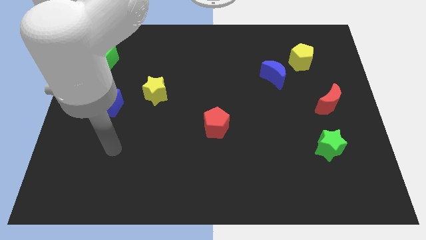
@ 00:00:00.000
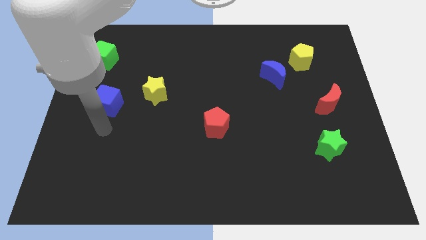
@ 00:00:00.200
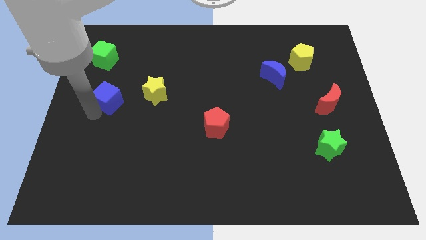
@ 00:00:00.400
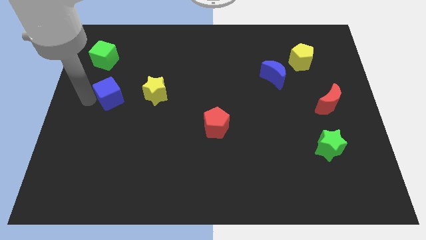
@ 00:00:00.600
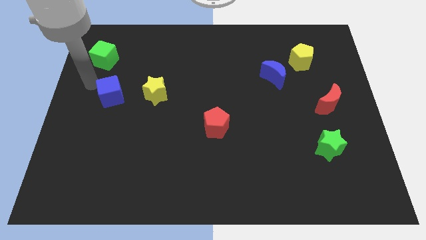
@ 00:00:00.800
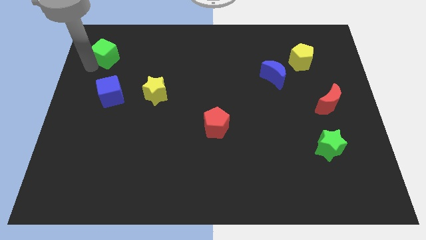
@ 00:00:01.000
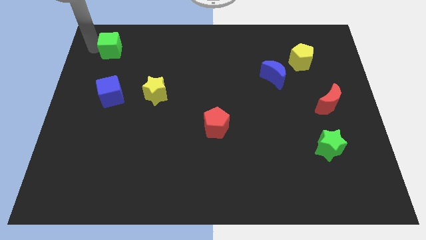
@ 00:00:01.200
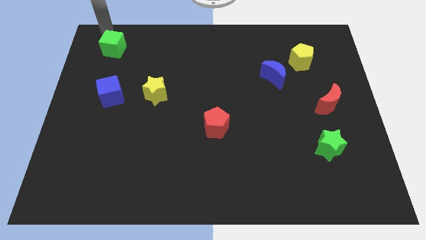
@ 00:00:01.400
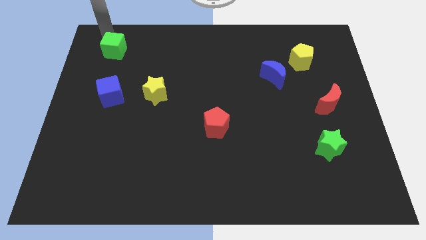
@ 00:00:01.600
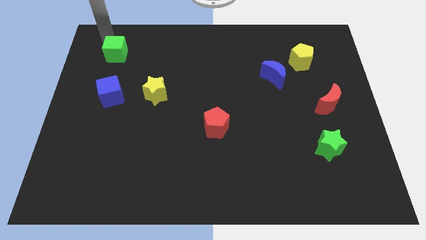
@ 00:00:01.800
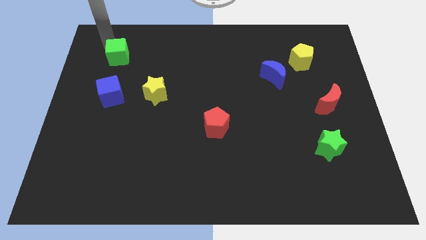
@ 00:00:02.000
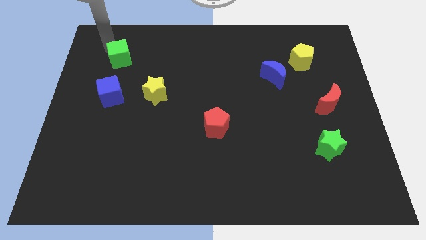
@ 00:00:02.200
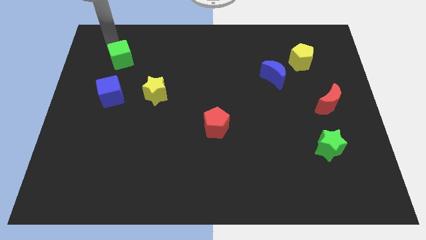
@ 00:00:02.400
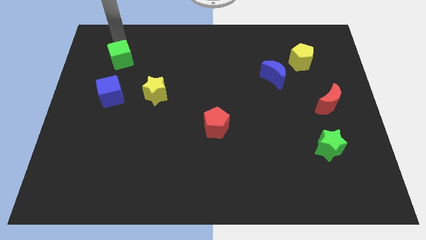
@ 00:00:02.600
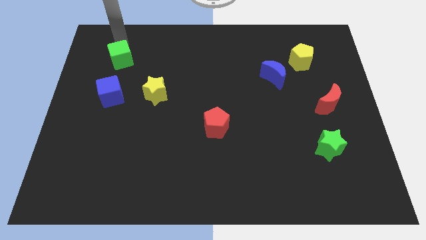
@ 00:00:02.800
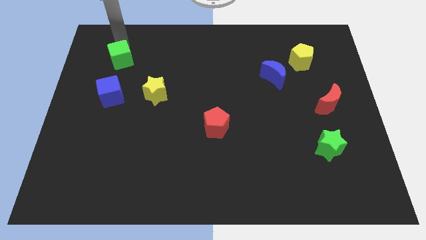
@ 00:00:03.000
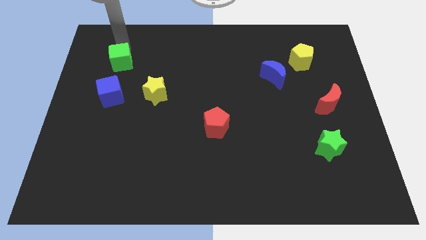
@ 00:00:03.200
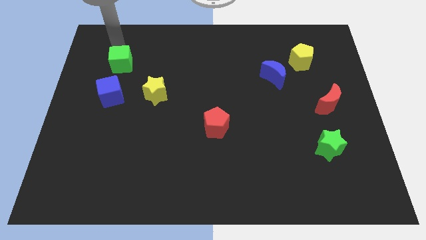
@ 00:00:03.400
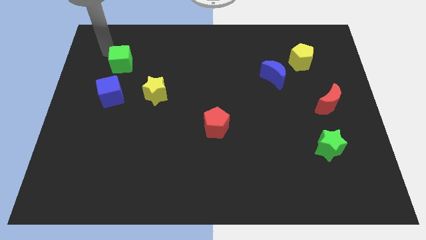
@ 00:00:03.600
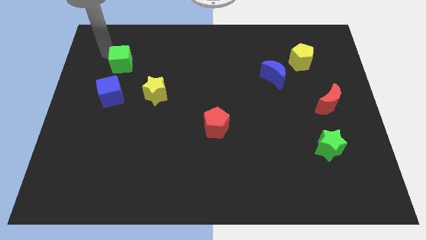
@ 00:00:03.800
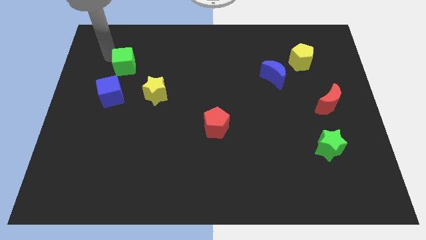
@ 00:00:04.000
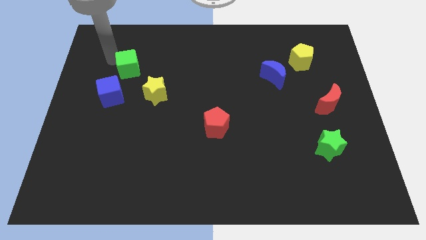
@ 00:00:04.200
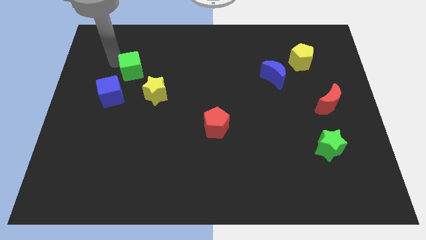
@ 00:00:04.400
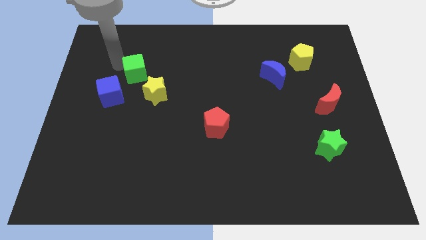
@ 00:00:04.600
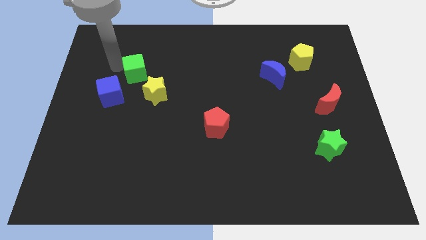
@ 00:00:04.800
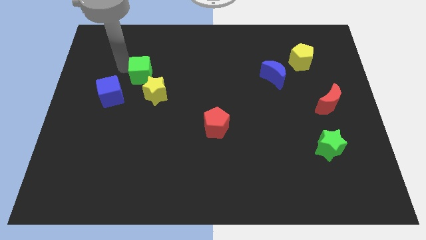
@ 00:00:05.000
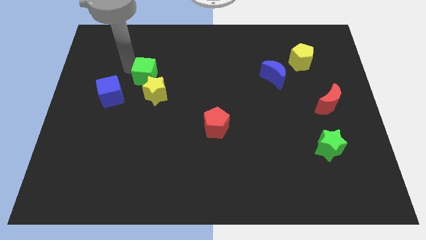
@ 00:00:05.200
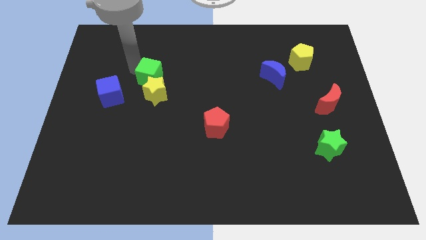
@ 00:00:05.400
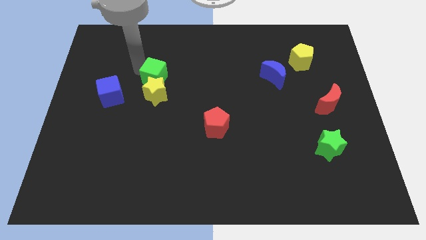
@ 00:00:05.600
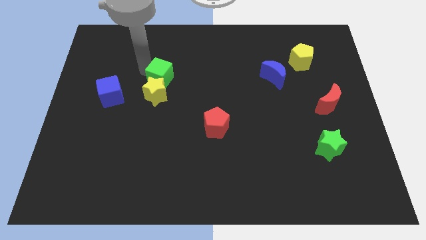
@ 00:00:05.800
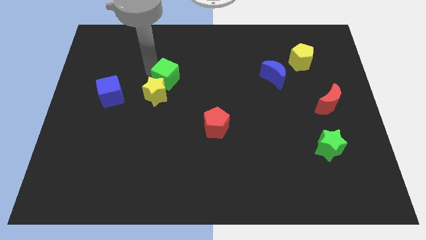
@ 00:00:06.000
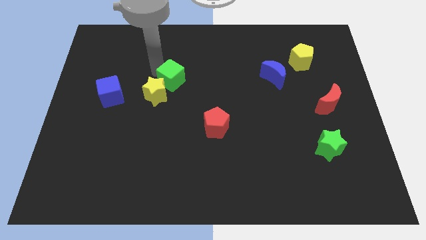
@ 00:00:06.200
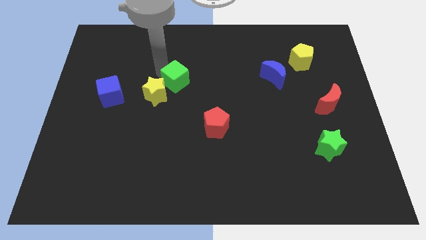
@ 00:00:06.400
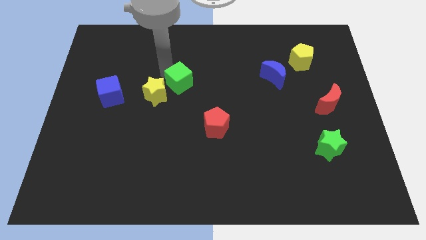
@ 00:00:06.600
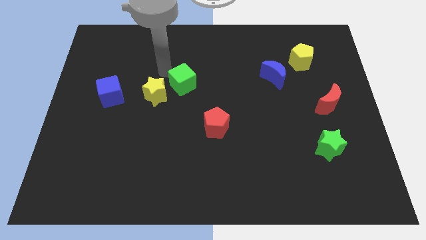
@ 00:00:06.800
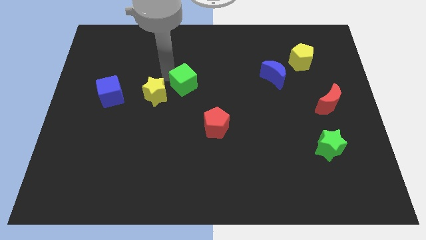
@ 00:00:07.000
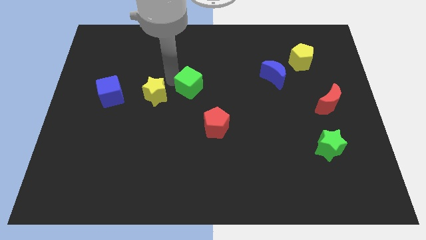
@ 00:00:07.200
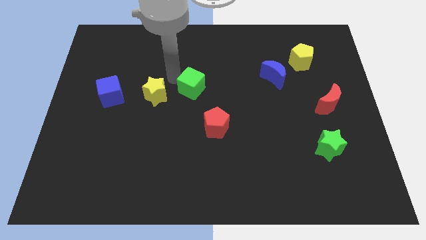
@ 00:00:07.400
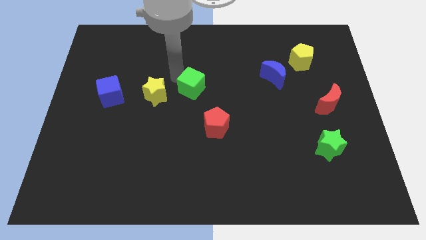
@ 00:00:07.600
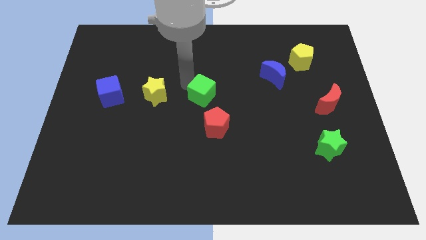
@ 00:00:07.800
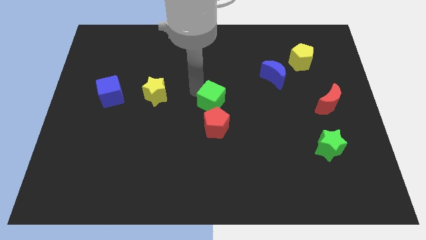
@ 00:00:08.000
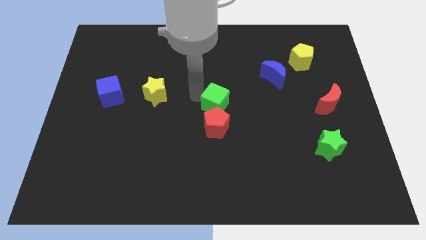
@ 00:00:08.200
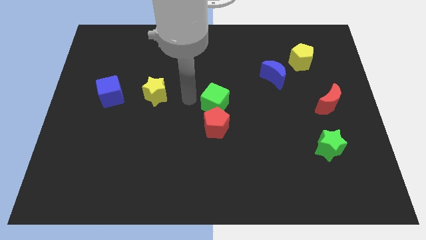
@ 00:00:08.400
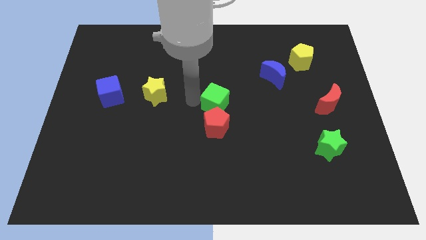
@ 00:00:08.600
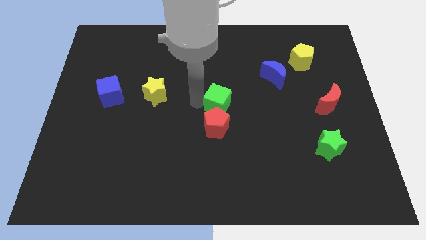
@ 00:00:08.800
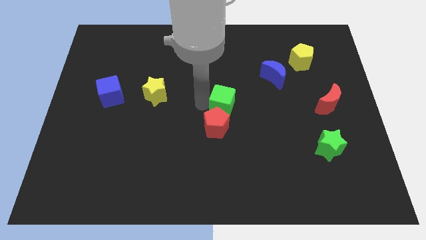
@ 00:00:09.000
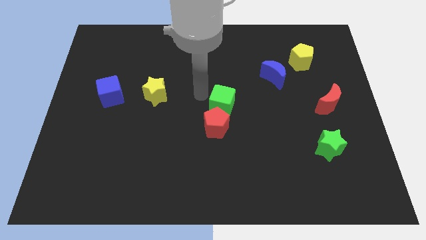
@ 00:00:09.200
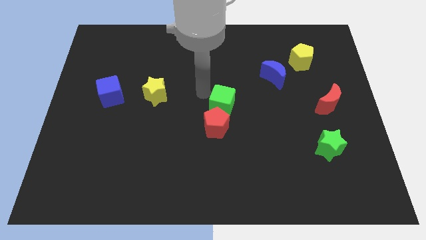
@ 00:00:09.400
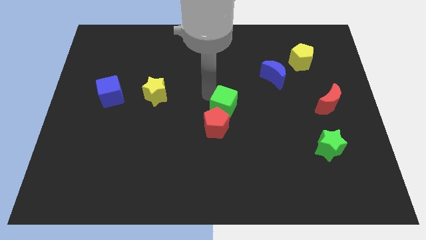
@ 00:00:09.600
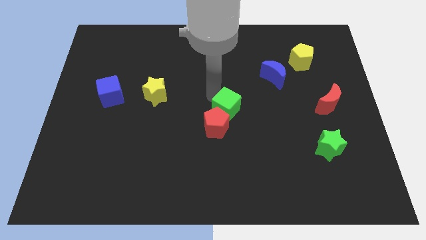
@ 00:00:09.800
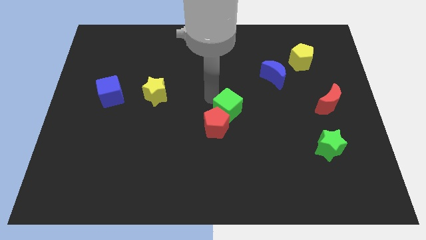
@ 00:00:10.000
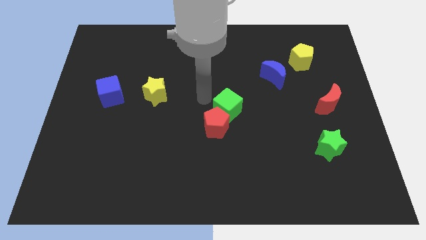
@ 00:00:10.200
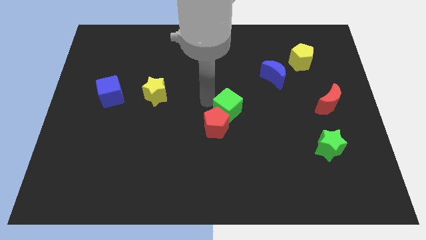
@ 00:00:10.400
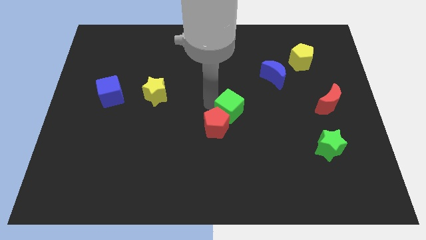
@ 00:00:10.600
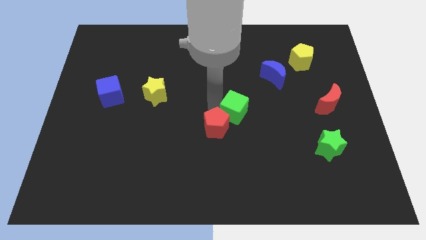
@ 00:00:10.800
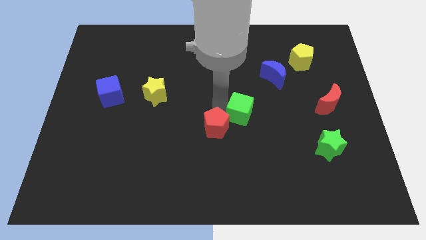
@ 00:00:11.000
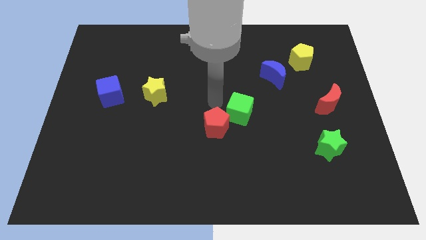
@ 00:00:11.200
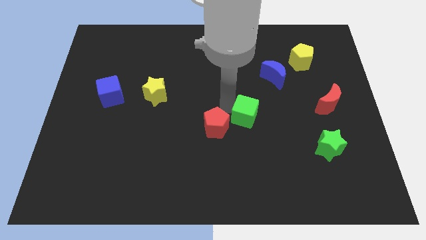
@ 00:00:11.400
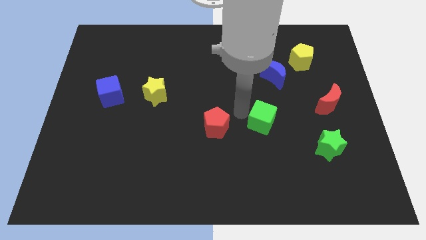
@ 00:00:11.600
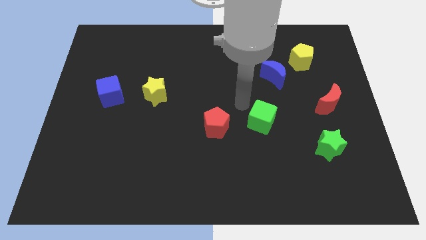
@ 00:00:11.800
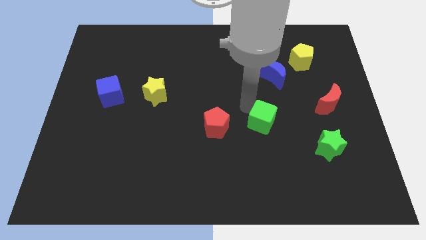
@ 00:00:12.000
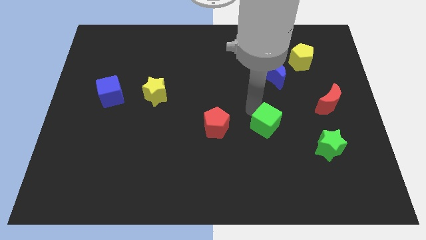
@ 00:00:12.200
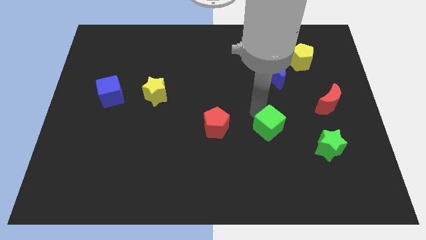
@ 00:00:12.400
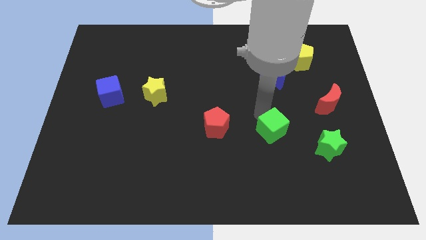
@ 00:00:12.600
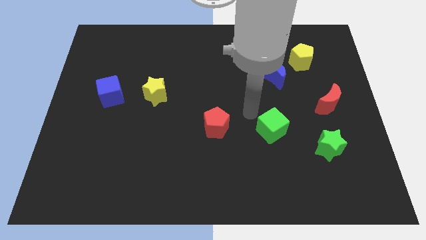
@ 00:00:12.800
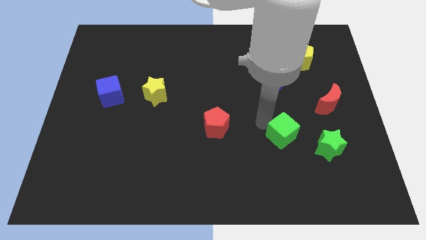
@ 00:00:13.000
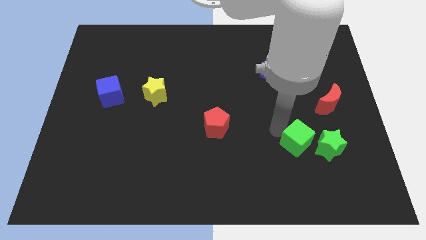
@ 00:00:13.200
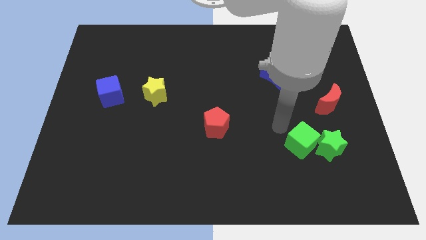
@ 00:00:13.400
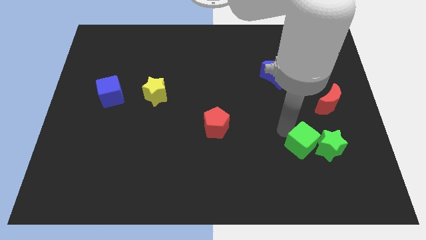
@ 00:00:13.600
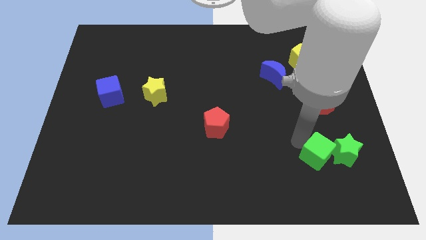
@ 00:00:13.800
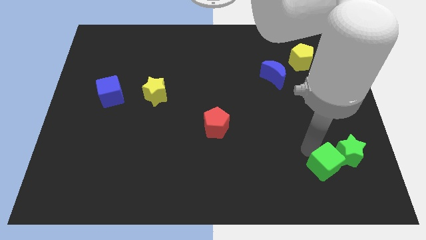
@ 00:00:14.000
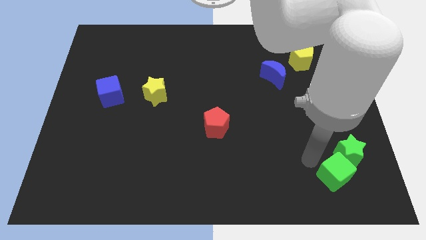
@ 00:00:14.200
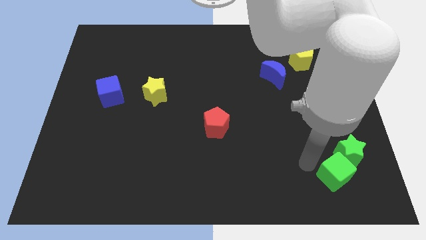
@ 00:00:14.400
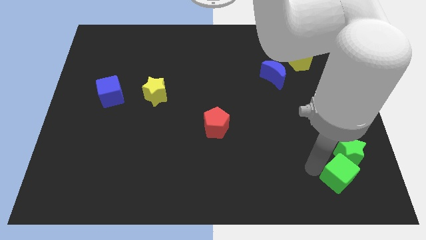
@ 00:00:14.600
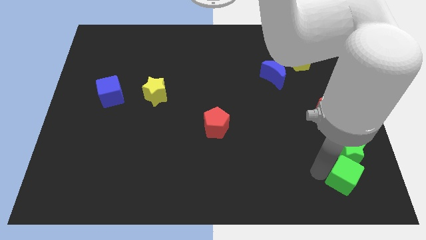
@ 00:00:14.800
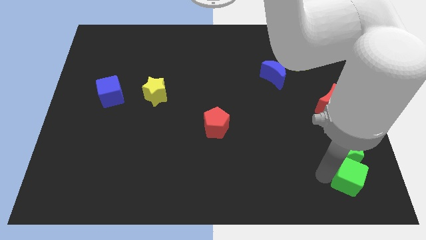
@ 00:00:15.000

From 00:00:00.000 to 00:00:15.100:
slide the green cube to the lower right corner
